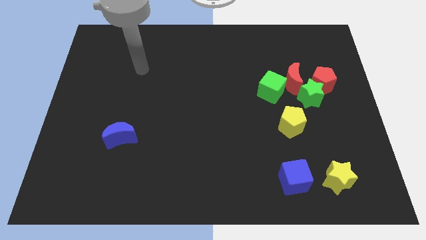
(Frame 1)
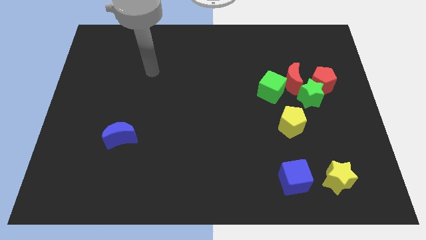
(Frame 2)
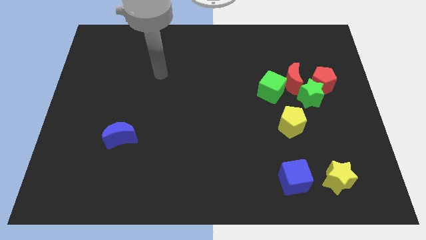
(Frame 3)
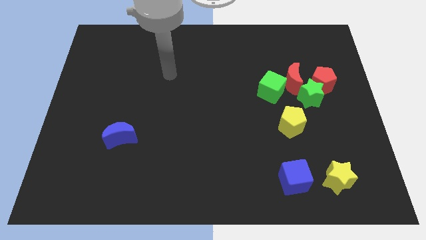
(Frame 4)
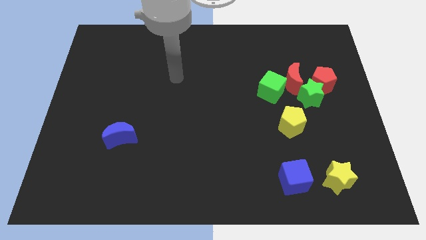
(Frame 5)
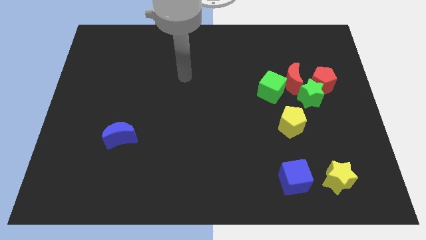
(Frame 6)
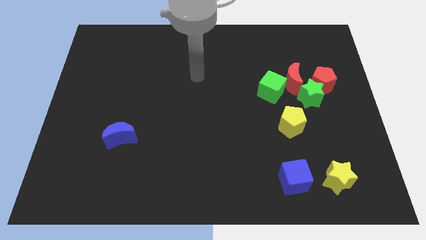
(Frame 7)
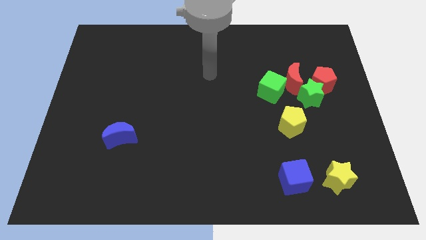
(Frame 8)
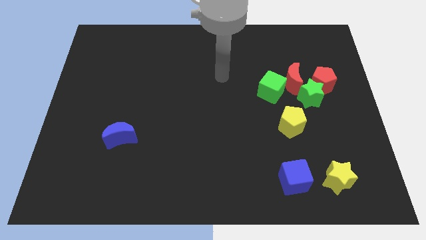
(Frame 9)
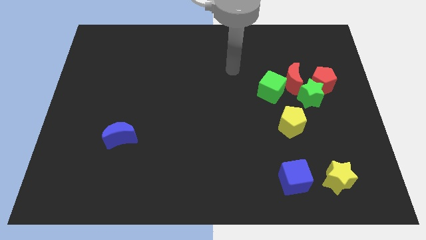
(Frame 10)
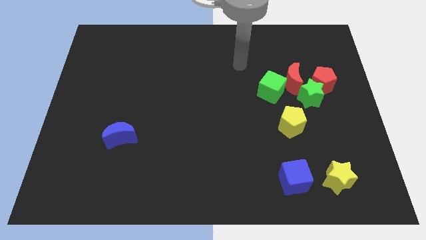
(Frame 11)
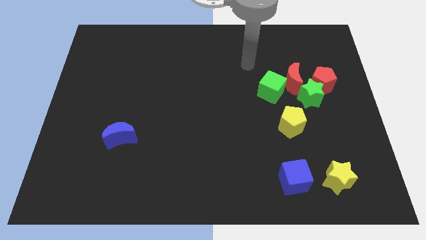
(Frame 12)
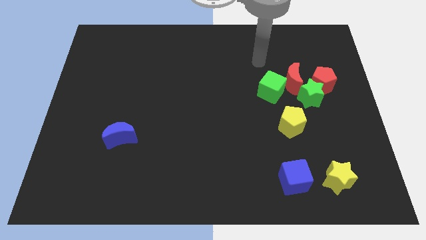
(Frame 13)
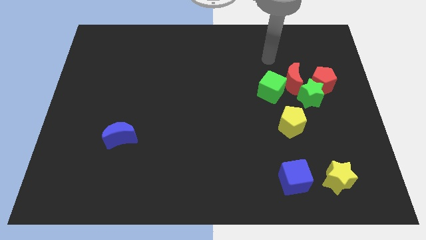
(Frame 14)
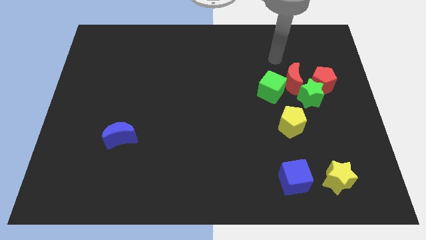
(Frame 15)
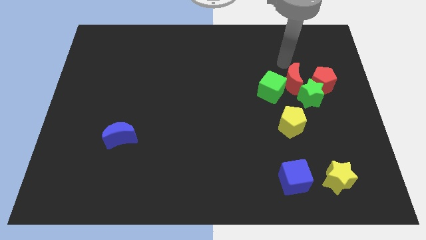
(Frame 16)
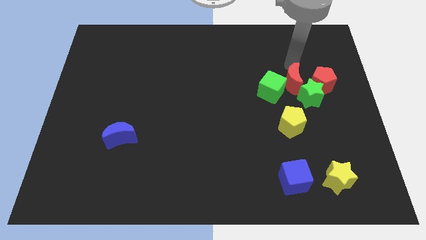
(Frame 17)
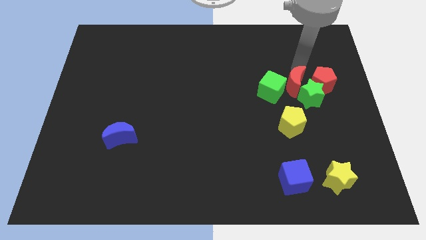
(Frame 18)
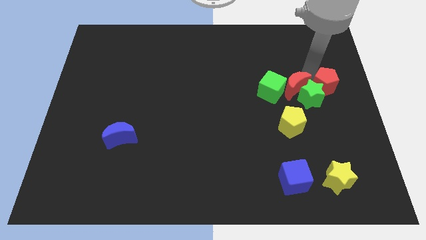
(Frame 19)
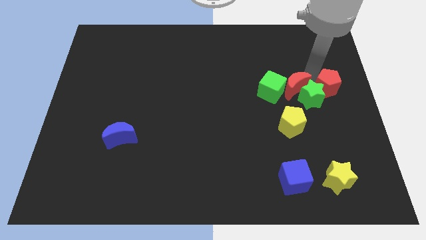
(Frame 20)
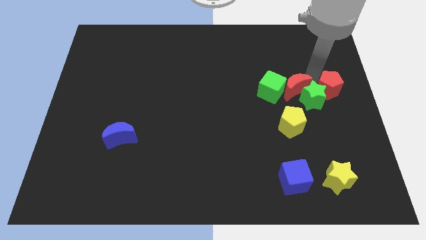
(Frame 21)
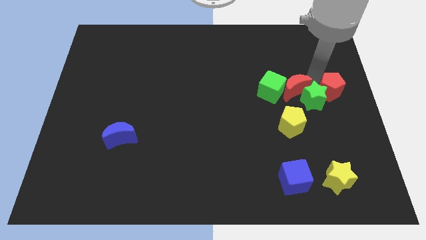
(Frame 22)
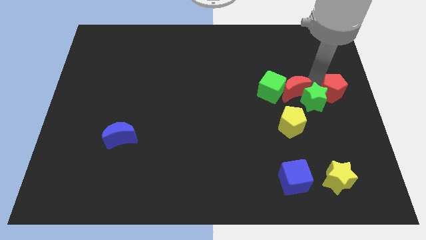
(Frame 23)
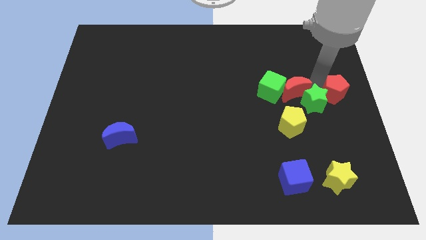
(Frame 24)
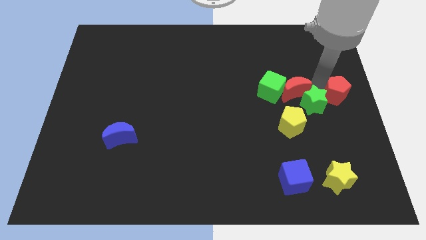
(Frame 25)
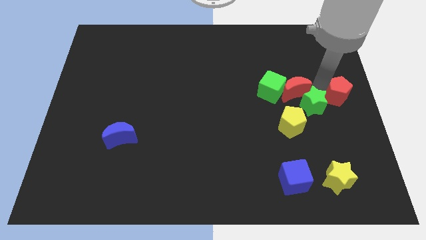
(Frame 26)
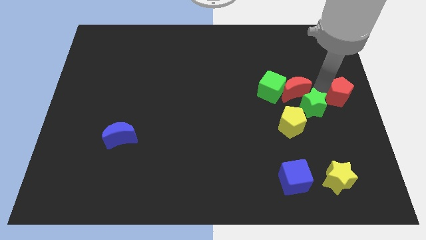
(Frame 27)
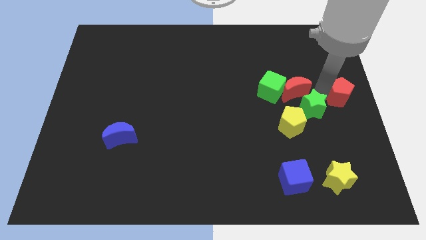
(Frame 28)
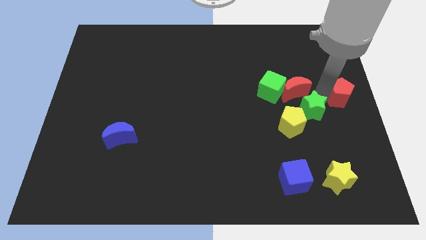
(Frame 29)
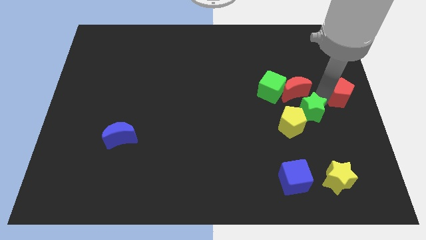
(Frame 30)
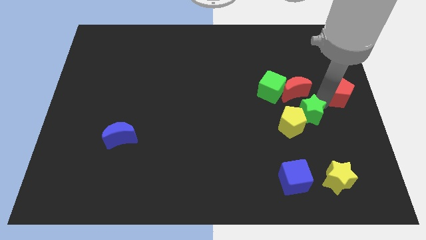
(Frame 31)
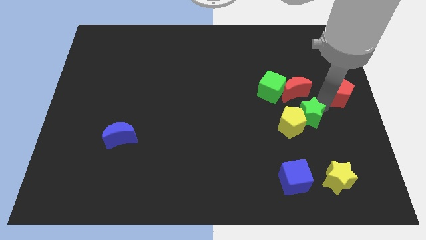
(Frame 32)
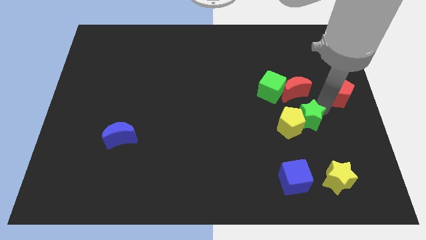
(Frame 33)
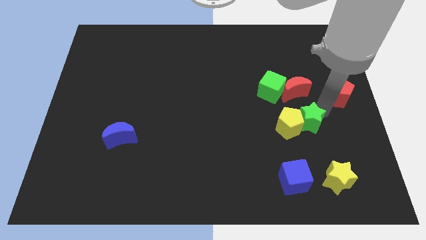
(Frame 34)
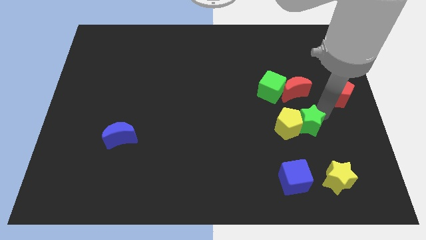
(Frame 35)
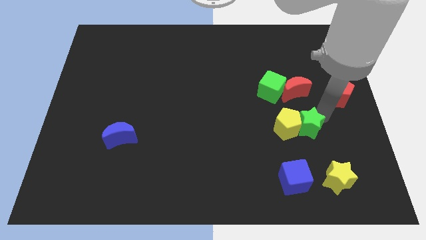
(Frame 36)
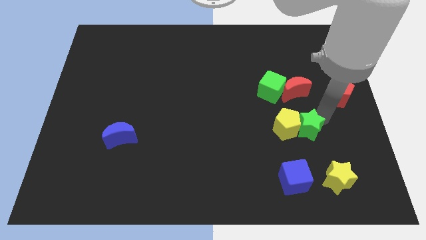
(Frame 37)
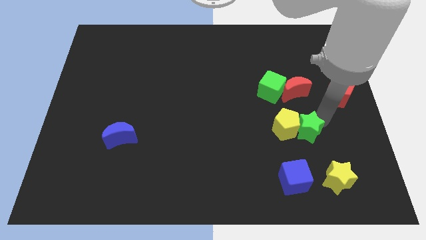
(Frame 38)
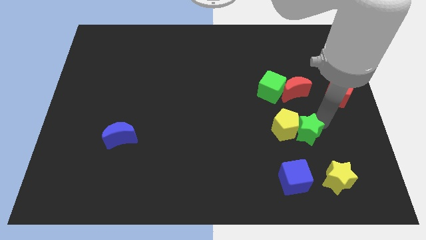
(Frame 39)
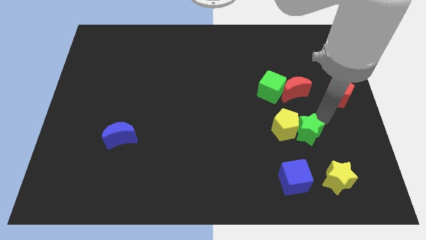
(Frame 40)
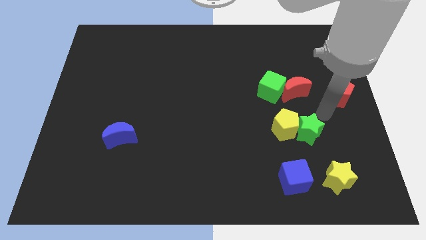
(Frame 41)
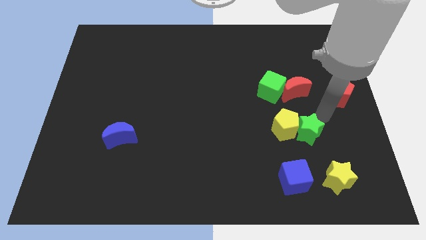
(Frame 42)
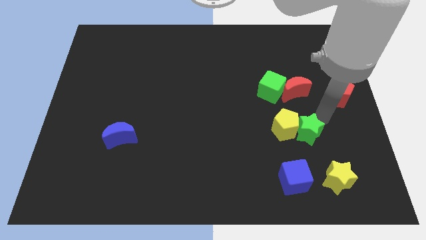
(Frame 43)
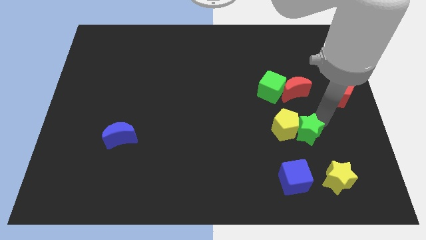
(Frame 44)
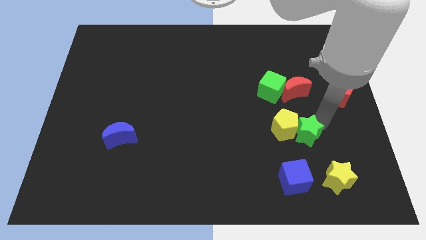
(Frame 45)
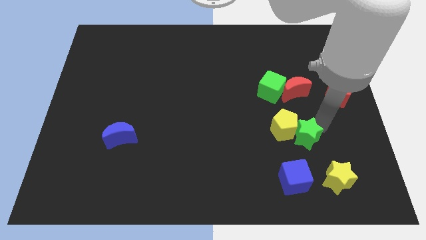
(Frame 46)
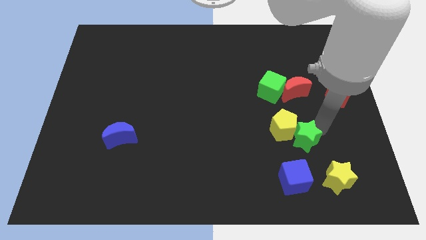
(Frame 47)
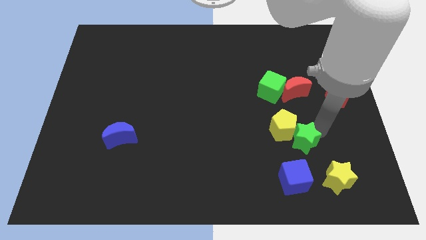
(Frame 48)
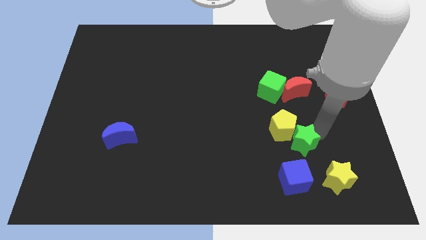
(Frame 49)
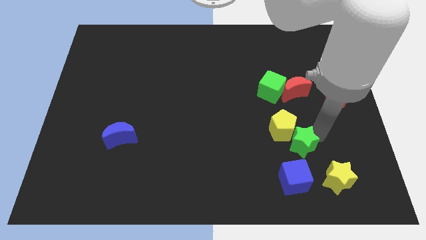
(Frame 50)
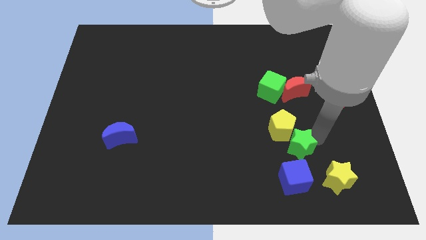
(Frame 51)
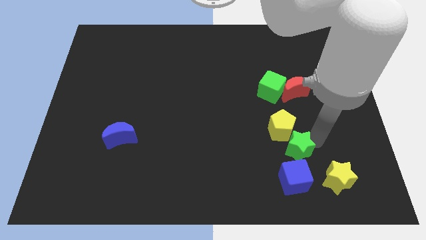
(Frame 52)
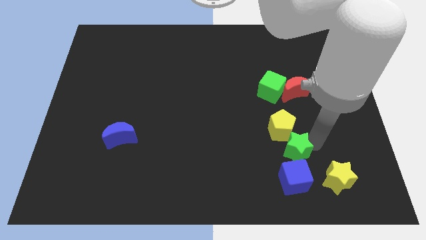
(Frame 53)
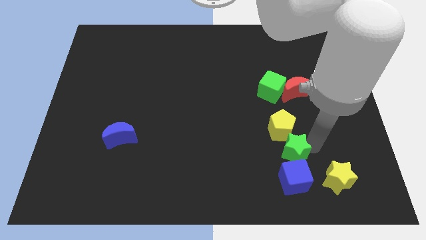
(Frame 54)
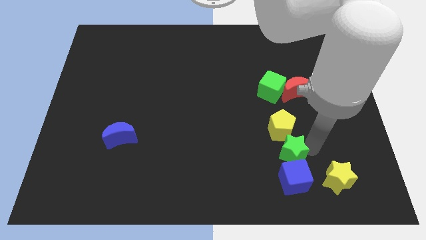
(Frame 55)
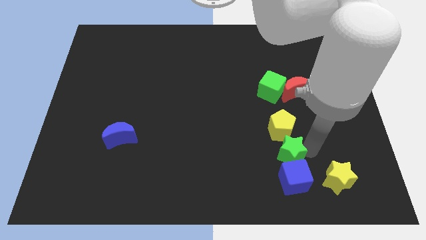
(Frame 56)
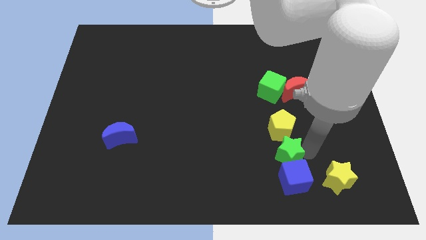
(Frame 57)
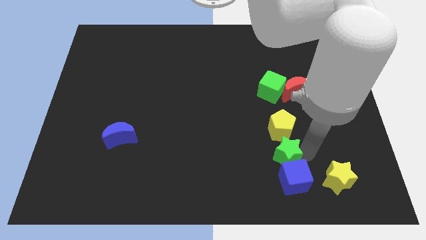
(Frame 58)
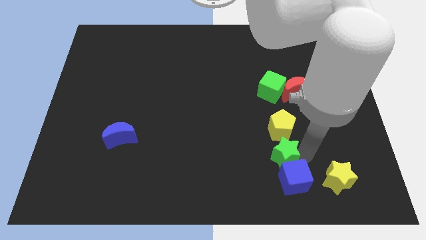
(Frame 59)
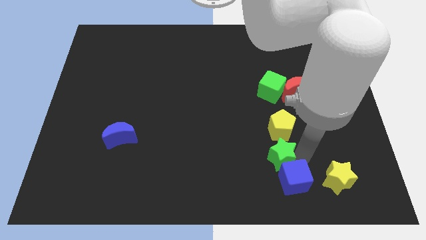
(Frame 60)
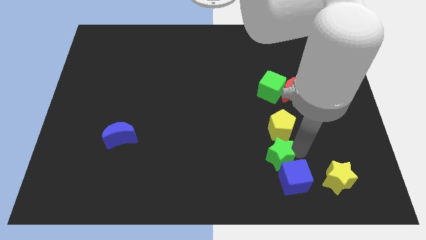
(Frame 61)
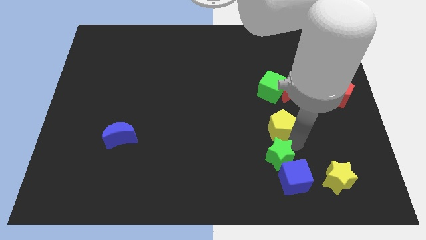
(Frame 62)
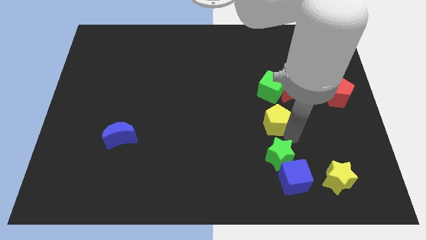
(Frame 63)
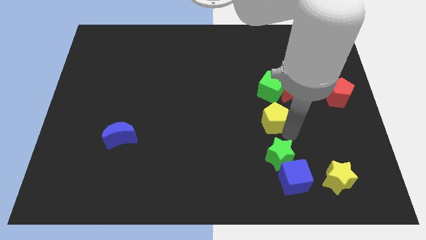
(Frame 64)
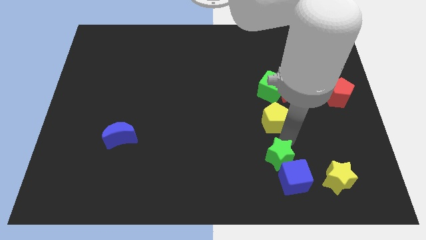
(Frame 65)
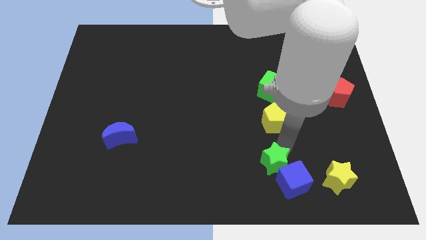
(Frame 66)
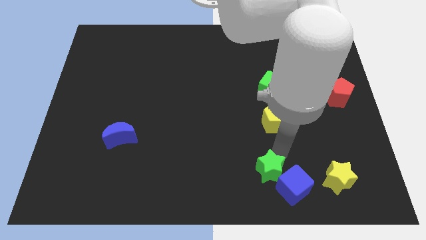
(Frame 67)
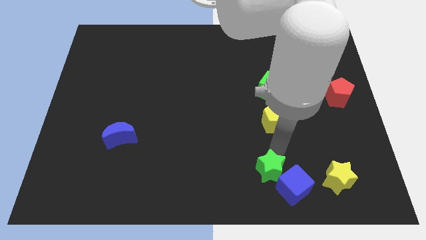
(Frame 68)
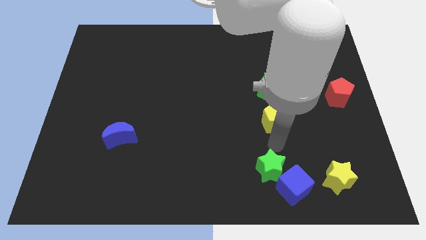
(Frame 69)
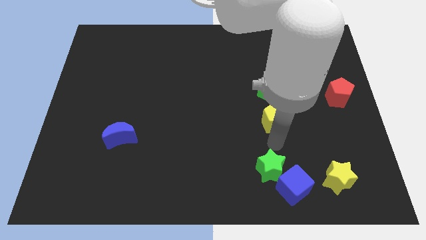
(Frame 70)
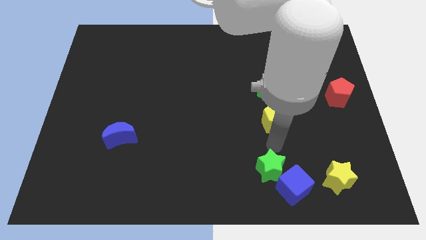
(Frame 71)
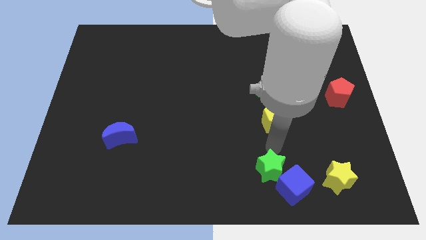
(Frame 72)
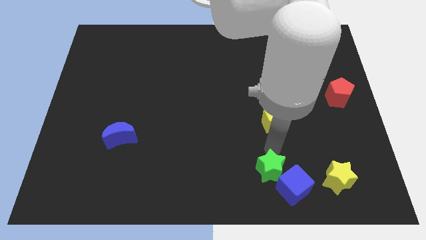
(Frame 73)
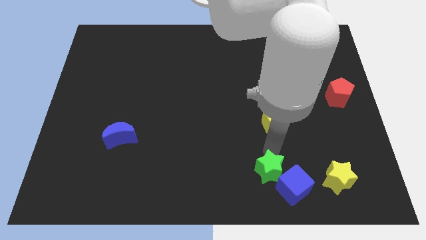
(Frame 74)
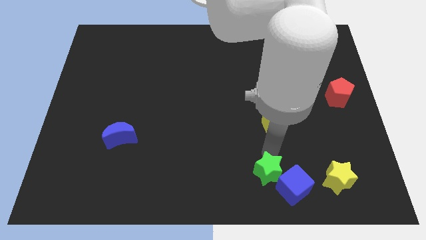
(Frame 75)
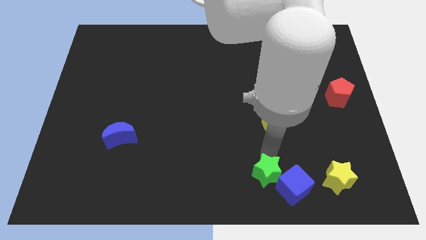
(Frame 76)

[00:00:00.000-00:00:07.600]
put the green star to the bottom side

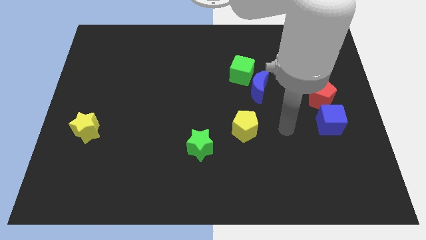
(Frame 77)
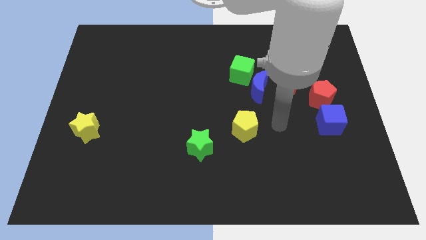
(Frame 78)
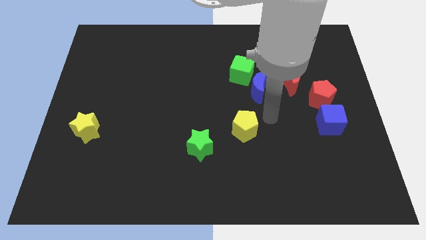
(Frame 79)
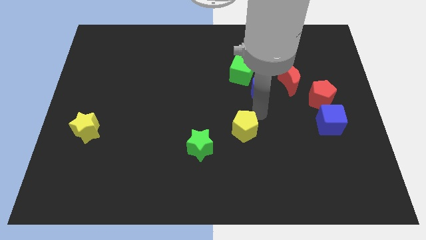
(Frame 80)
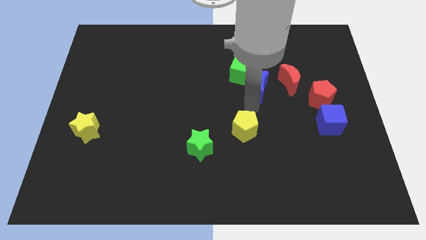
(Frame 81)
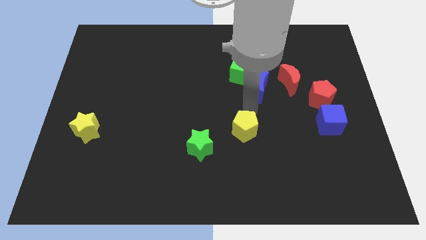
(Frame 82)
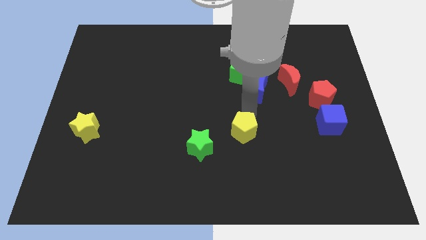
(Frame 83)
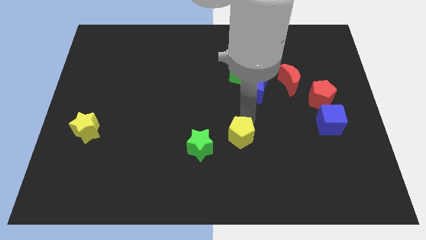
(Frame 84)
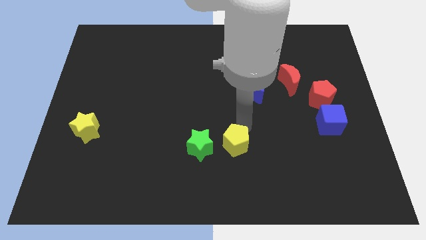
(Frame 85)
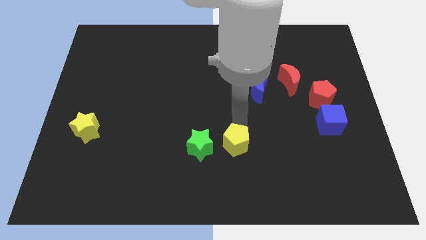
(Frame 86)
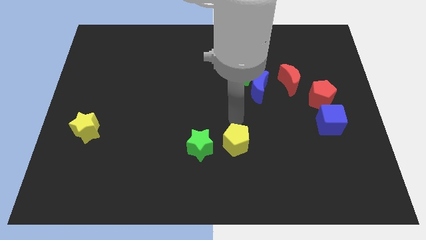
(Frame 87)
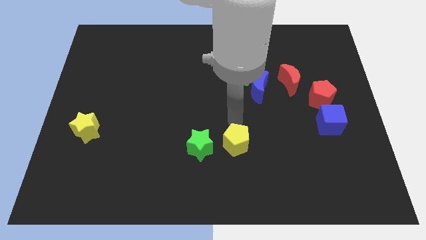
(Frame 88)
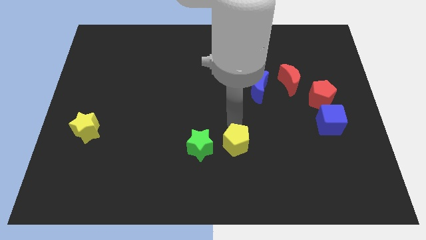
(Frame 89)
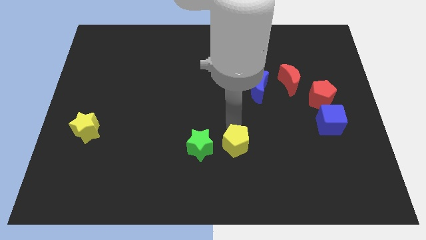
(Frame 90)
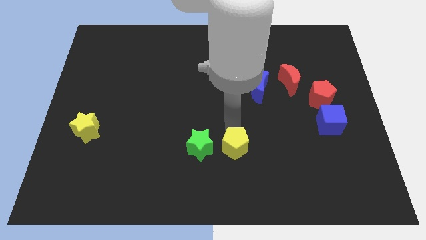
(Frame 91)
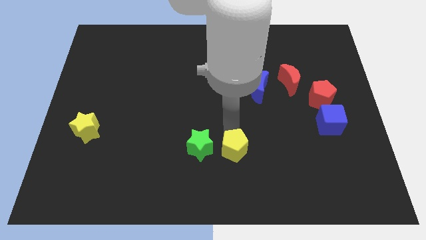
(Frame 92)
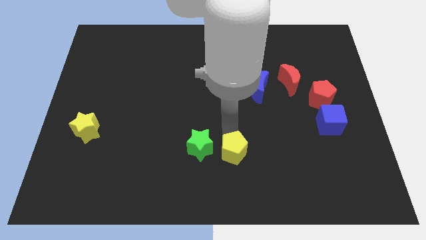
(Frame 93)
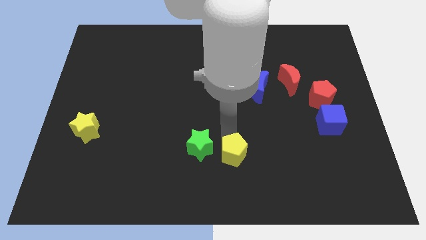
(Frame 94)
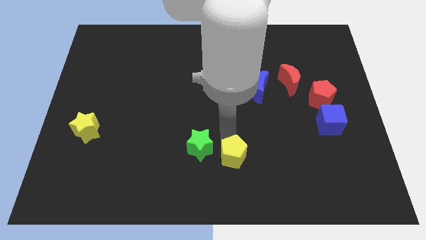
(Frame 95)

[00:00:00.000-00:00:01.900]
put the yellow pentagon to the bottom
